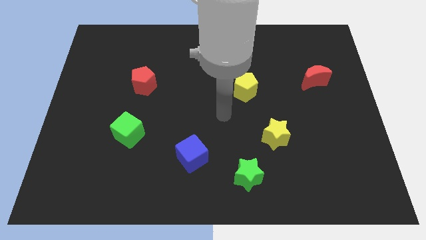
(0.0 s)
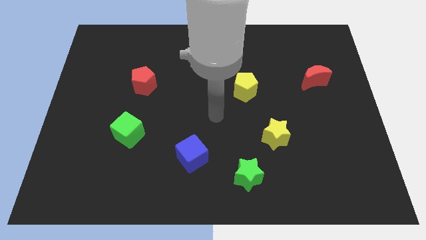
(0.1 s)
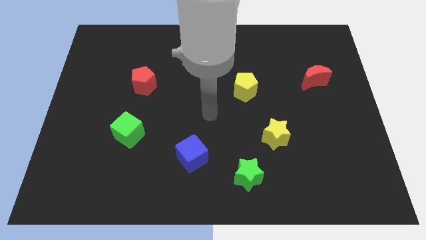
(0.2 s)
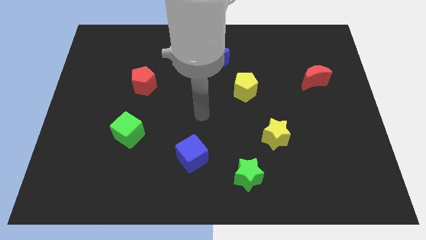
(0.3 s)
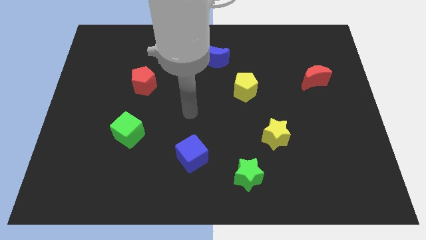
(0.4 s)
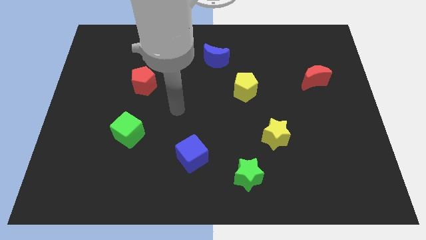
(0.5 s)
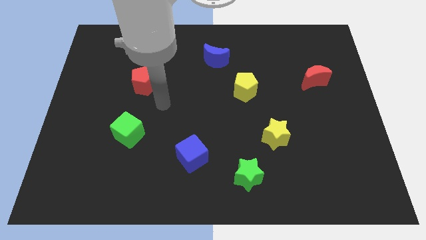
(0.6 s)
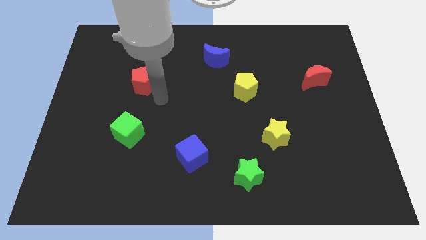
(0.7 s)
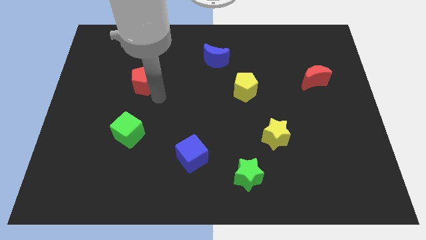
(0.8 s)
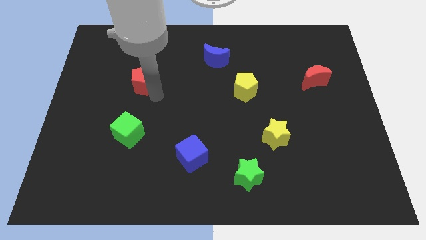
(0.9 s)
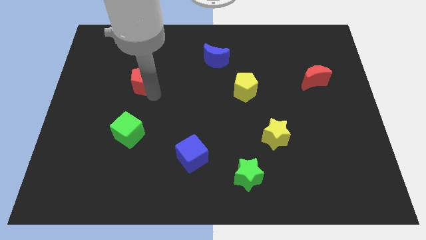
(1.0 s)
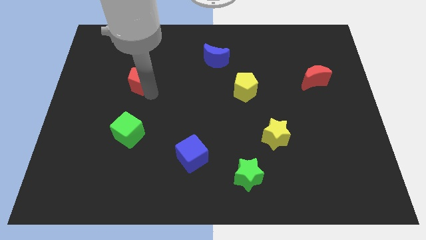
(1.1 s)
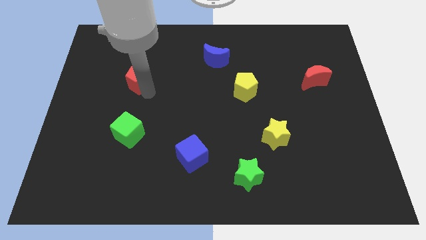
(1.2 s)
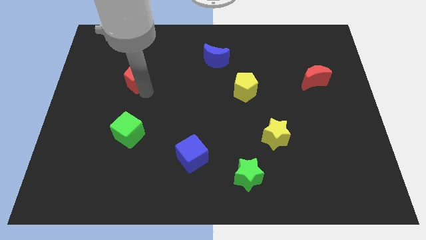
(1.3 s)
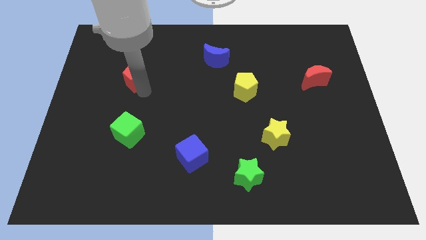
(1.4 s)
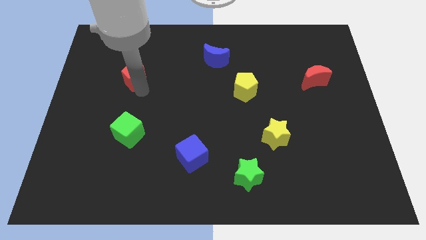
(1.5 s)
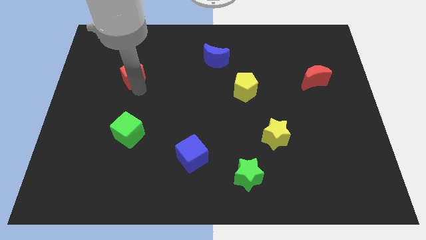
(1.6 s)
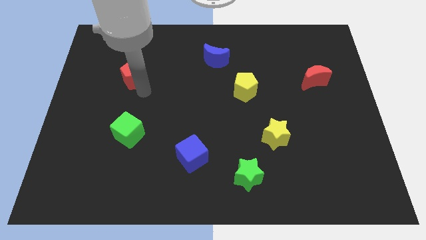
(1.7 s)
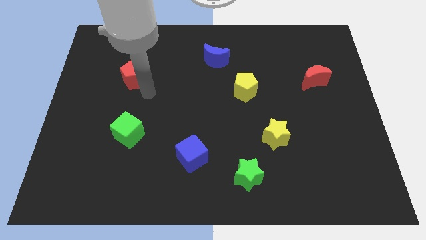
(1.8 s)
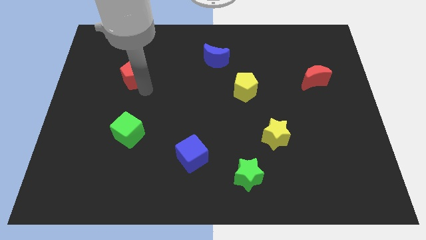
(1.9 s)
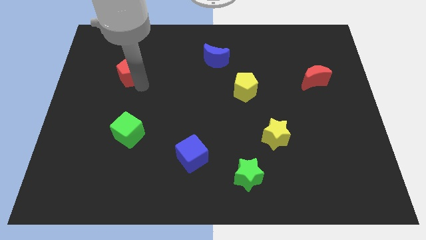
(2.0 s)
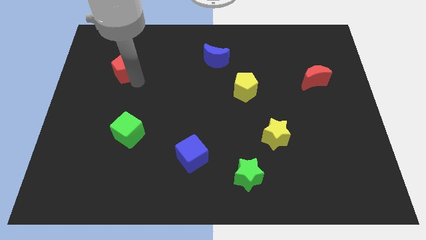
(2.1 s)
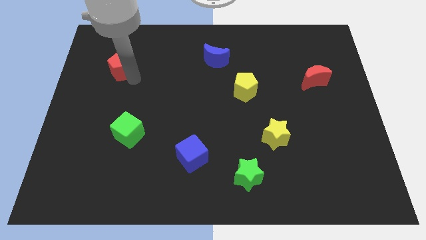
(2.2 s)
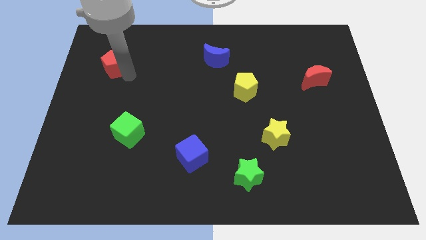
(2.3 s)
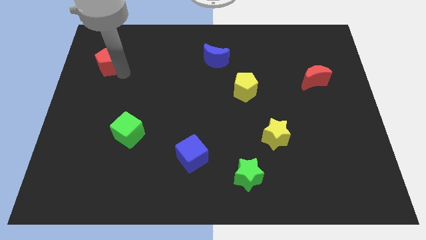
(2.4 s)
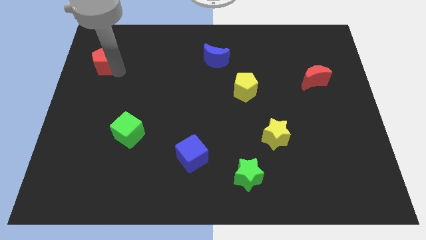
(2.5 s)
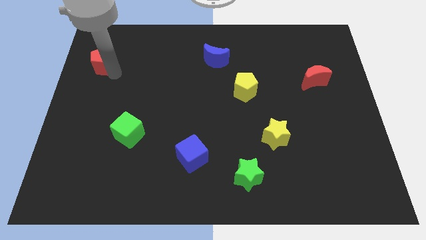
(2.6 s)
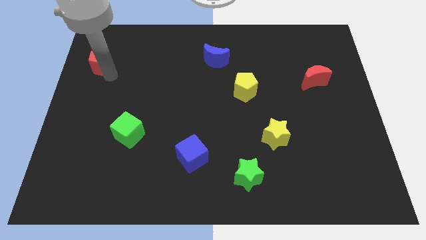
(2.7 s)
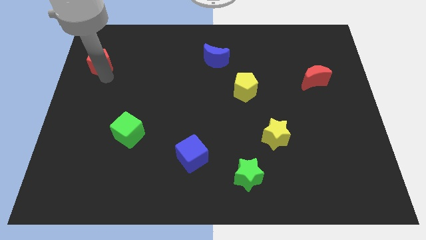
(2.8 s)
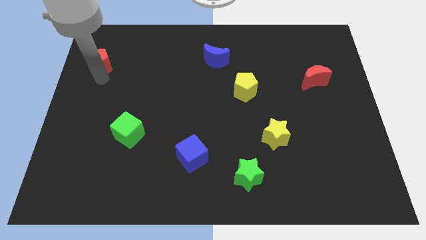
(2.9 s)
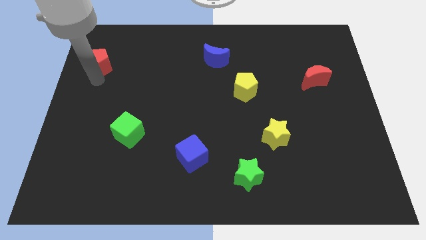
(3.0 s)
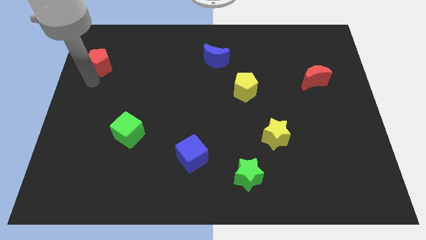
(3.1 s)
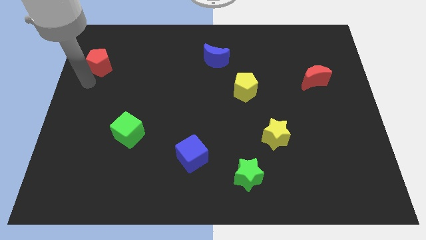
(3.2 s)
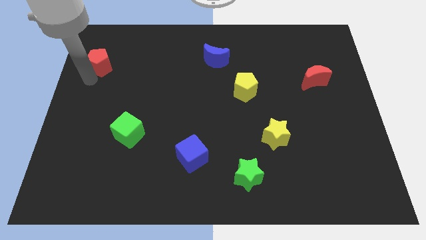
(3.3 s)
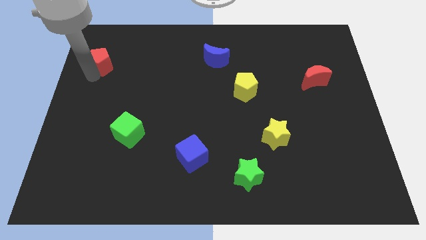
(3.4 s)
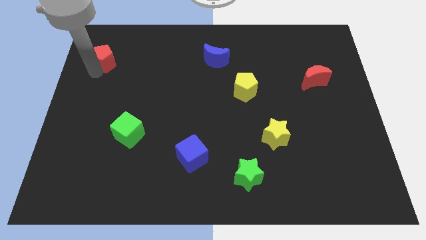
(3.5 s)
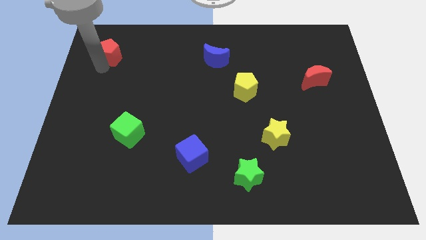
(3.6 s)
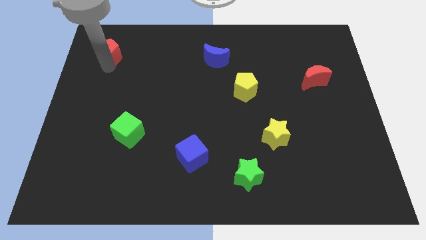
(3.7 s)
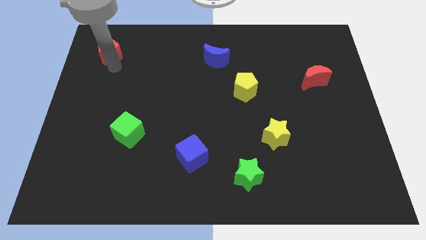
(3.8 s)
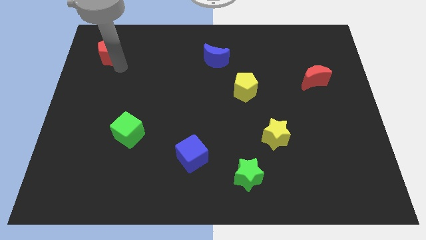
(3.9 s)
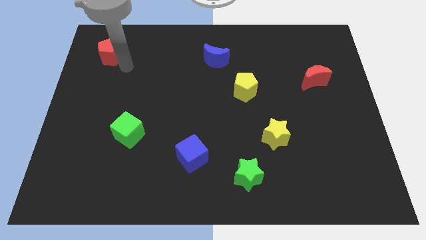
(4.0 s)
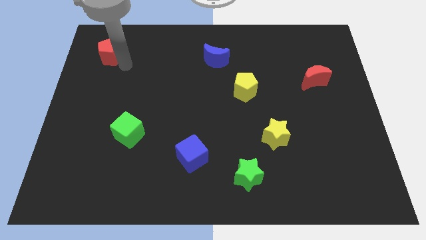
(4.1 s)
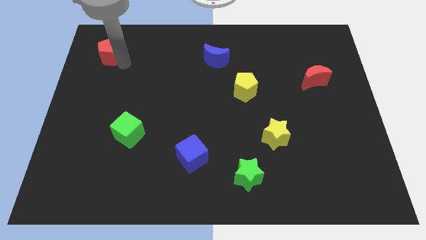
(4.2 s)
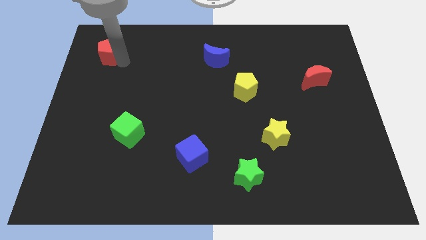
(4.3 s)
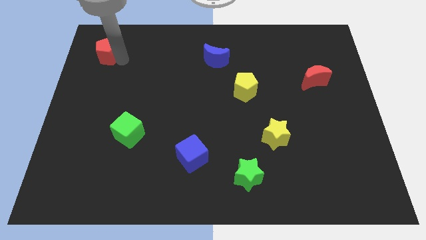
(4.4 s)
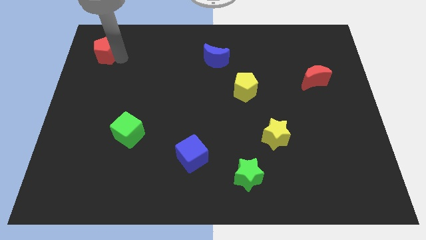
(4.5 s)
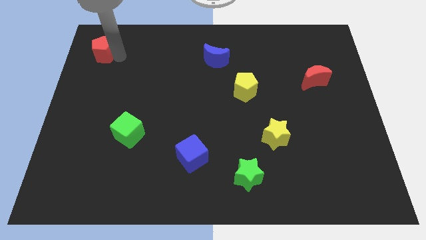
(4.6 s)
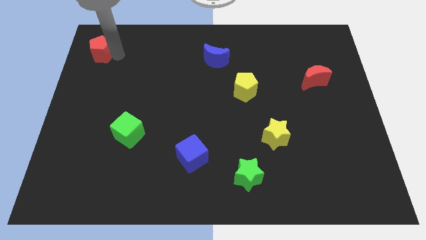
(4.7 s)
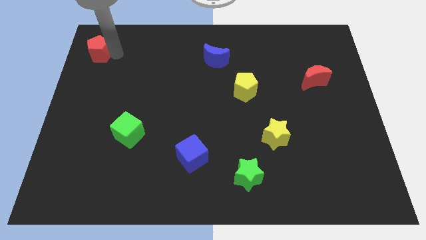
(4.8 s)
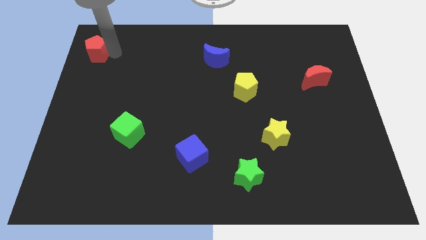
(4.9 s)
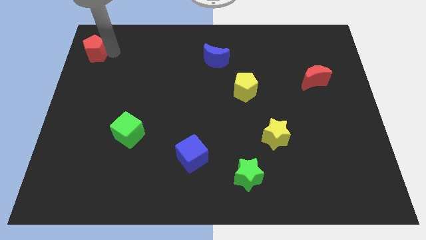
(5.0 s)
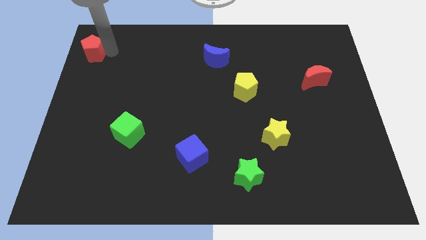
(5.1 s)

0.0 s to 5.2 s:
push the red pentagon to the upper left corner

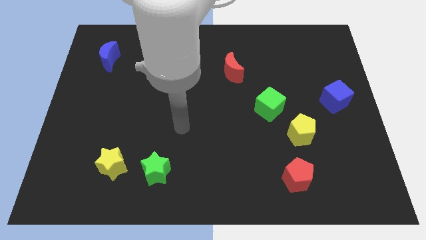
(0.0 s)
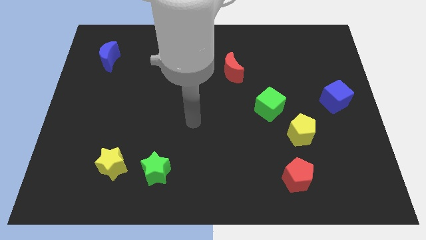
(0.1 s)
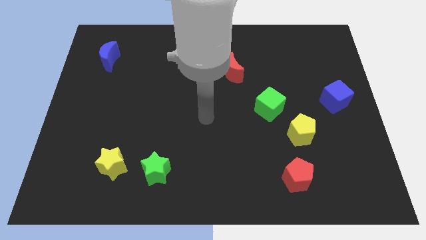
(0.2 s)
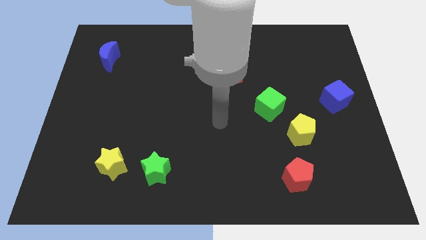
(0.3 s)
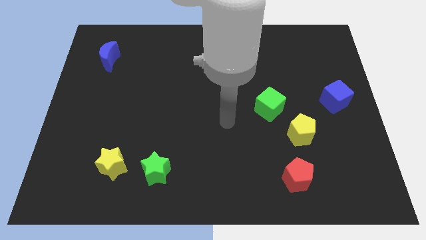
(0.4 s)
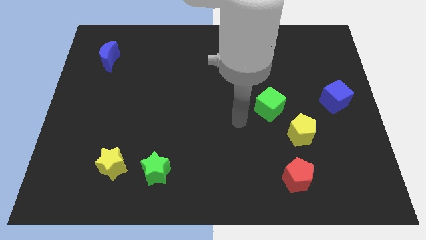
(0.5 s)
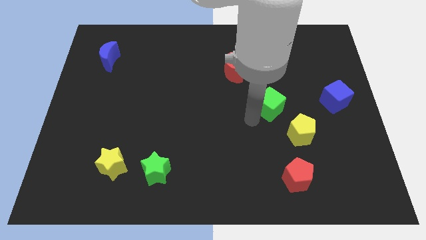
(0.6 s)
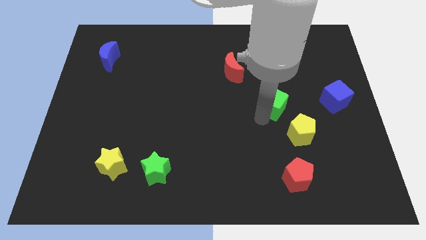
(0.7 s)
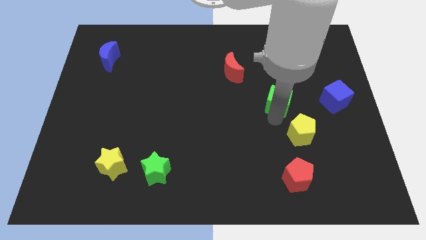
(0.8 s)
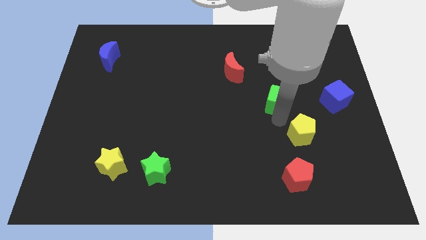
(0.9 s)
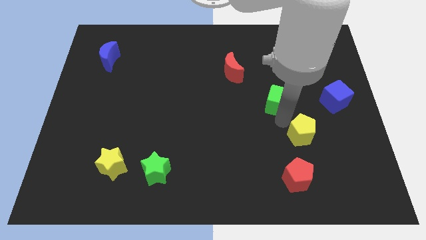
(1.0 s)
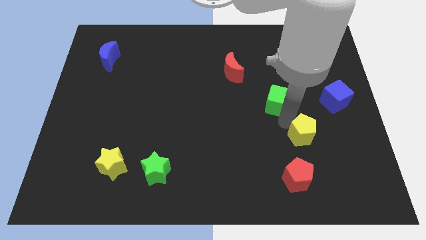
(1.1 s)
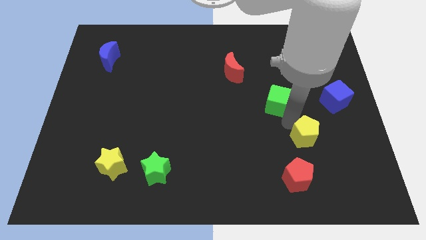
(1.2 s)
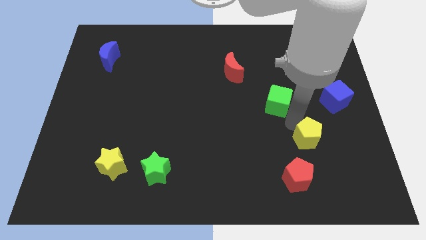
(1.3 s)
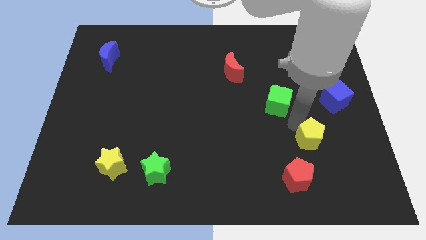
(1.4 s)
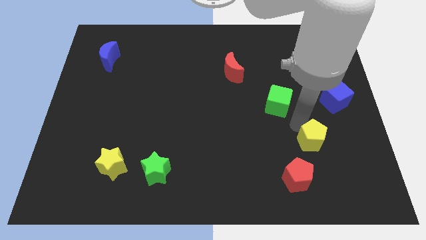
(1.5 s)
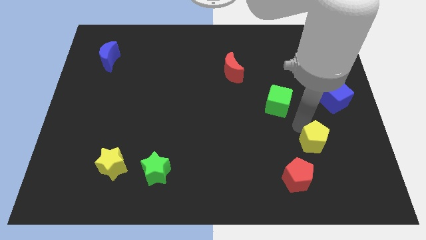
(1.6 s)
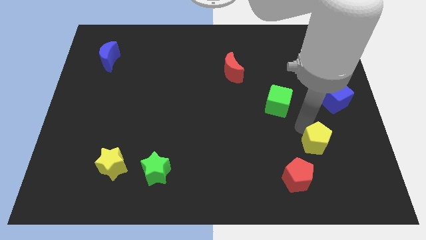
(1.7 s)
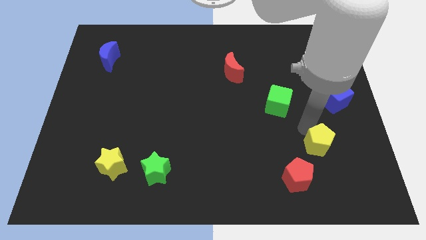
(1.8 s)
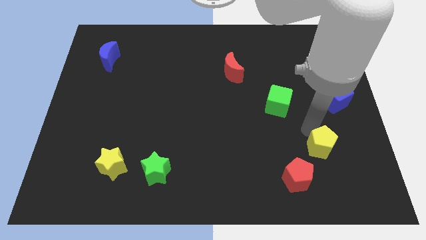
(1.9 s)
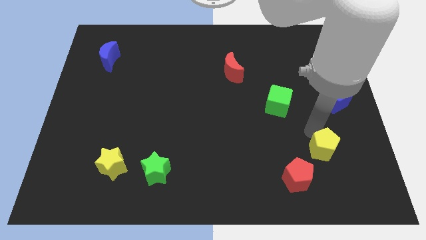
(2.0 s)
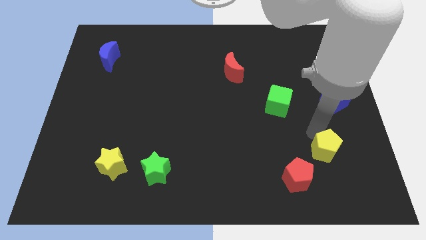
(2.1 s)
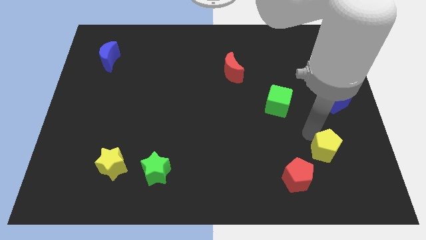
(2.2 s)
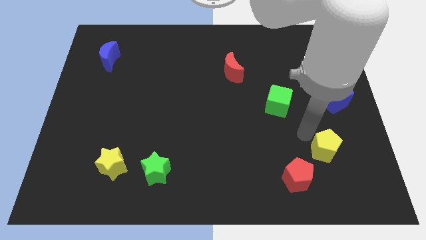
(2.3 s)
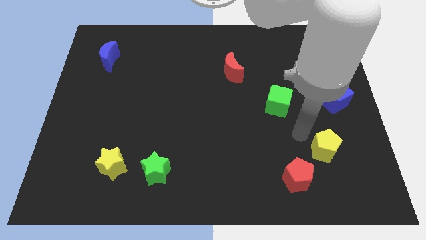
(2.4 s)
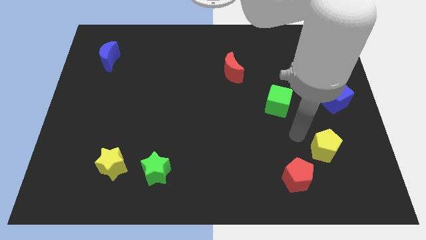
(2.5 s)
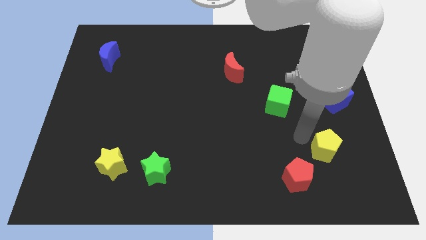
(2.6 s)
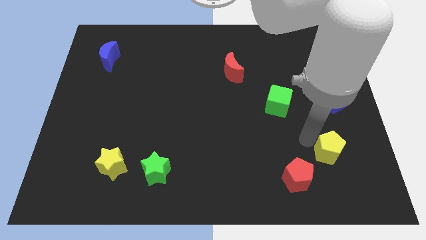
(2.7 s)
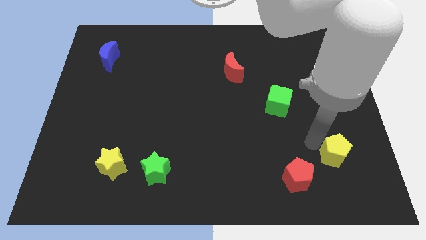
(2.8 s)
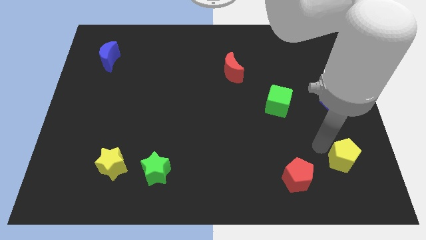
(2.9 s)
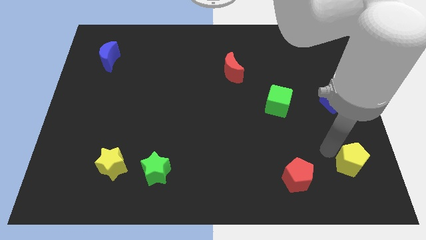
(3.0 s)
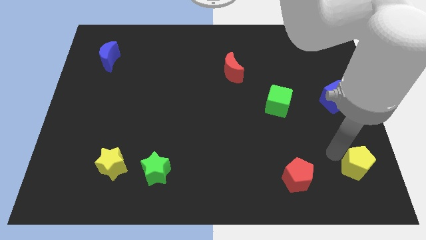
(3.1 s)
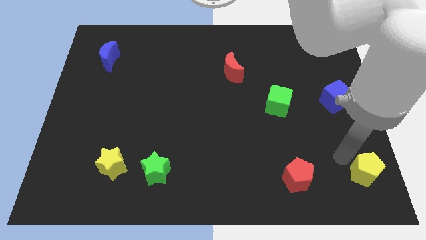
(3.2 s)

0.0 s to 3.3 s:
push the yellow pentagon to the bottom right corner
